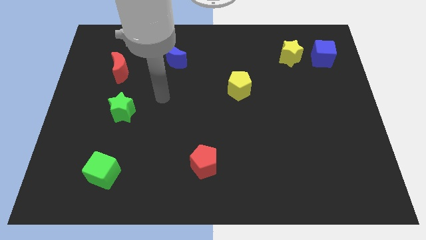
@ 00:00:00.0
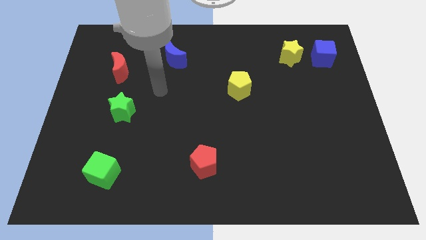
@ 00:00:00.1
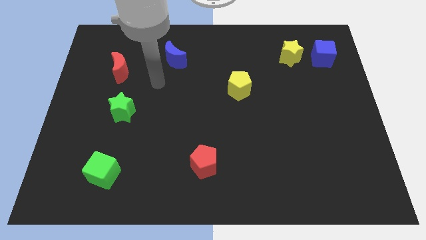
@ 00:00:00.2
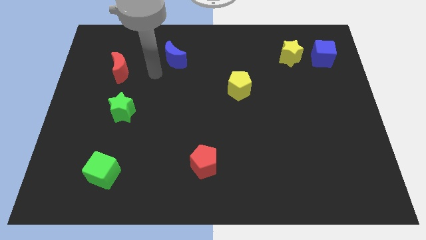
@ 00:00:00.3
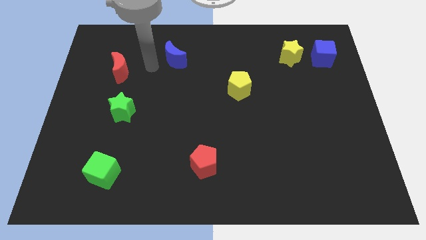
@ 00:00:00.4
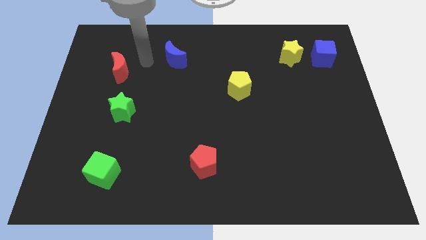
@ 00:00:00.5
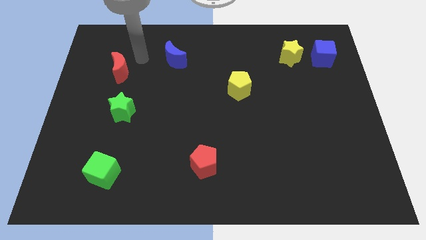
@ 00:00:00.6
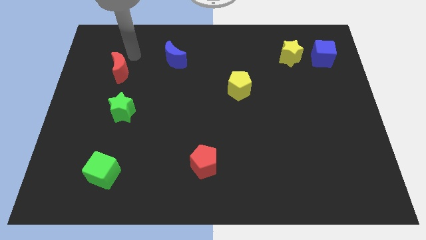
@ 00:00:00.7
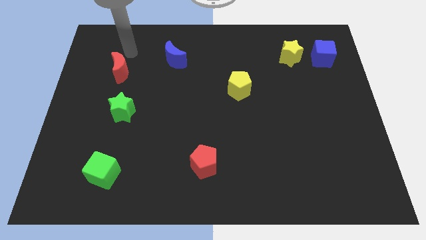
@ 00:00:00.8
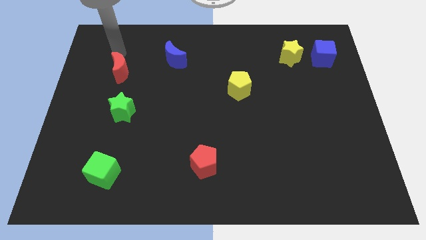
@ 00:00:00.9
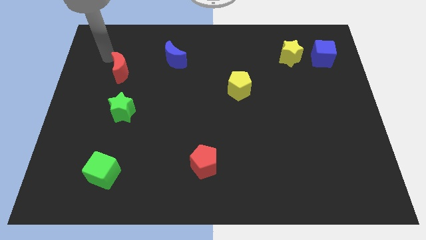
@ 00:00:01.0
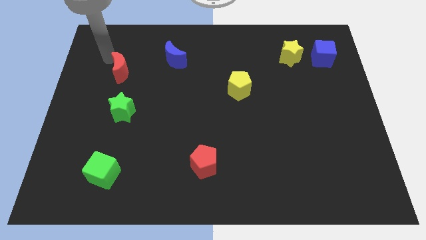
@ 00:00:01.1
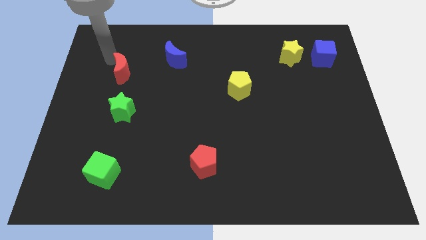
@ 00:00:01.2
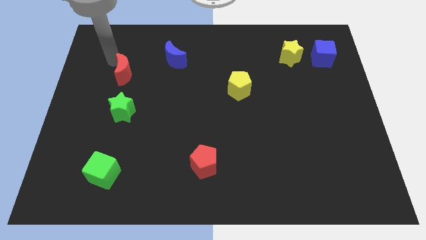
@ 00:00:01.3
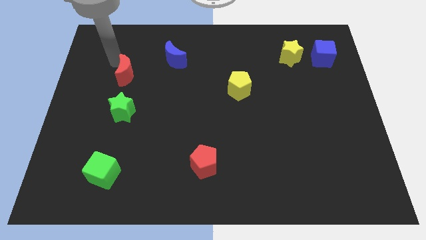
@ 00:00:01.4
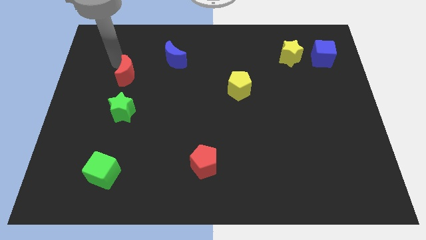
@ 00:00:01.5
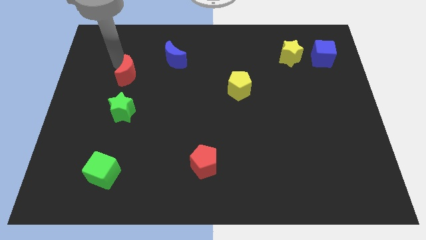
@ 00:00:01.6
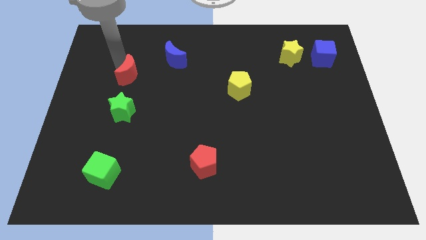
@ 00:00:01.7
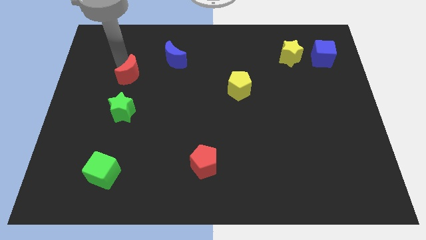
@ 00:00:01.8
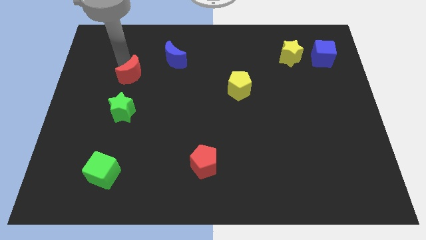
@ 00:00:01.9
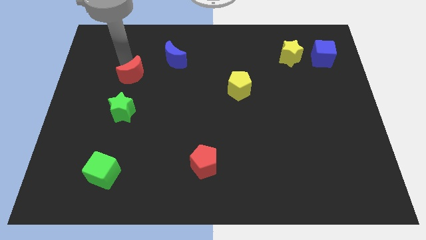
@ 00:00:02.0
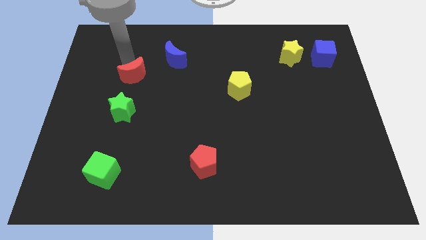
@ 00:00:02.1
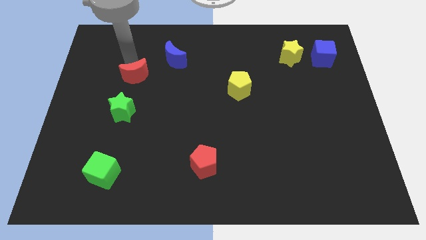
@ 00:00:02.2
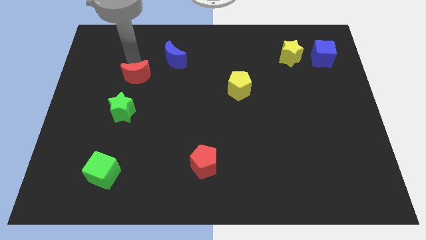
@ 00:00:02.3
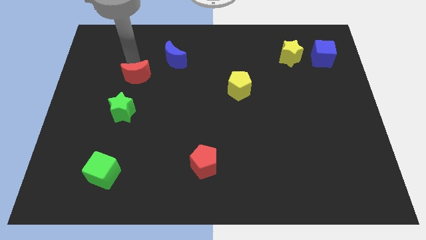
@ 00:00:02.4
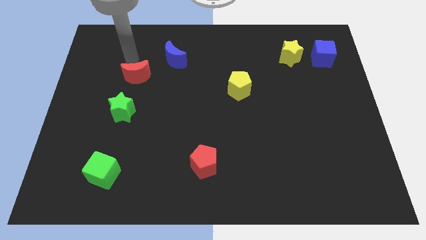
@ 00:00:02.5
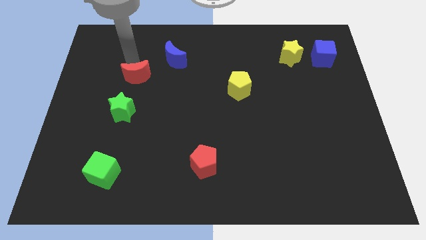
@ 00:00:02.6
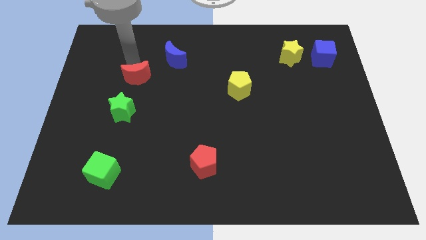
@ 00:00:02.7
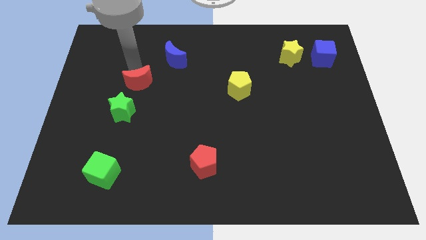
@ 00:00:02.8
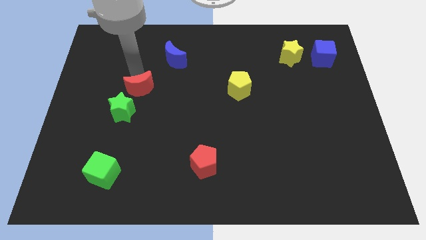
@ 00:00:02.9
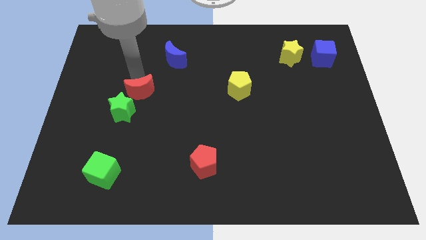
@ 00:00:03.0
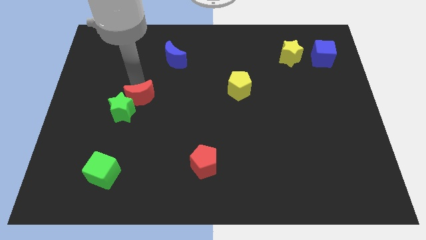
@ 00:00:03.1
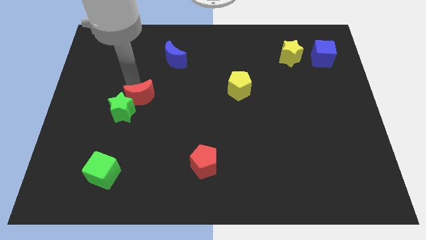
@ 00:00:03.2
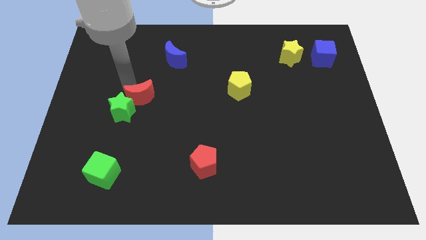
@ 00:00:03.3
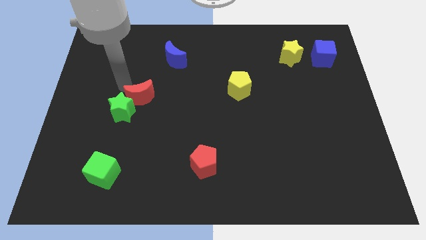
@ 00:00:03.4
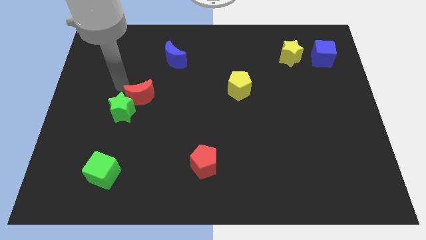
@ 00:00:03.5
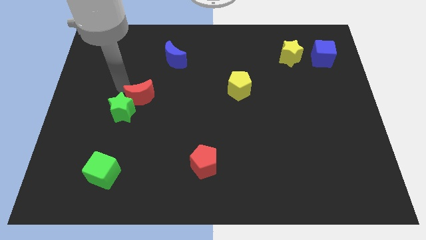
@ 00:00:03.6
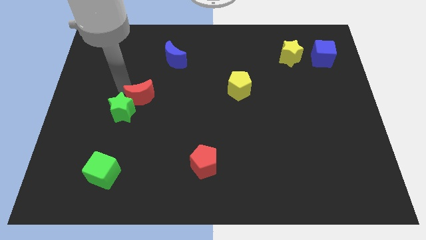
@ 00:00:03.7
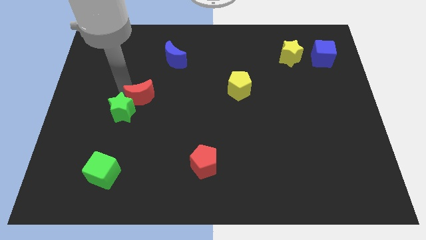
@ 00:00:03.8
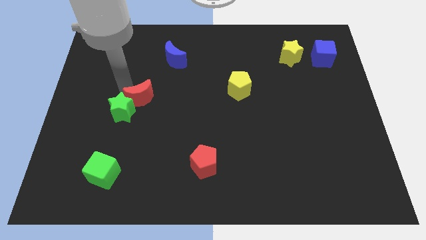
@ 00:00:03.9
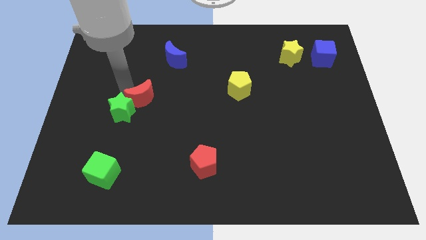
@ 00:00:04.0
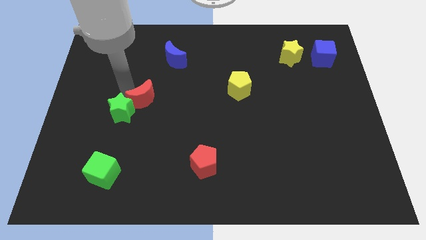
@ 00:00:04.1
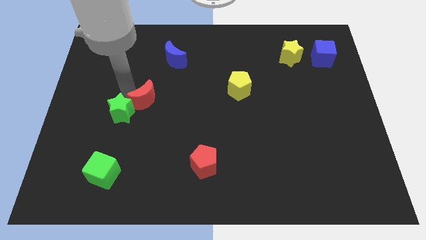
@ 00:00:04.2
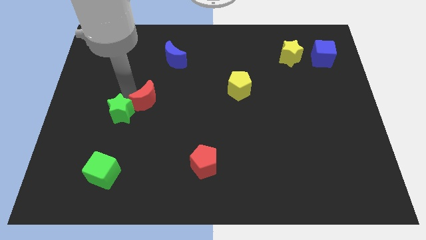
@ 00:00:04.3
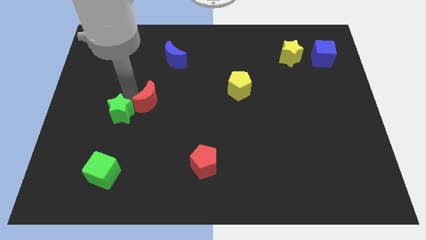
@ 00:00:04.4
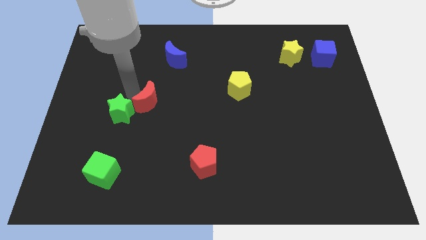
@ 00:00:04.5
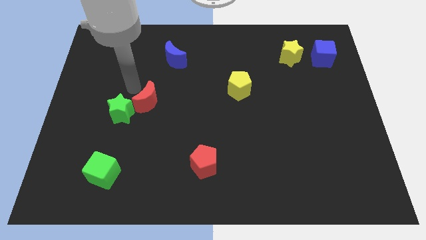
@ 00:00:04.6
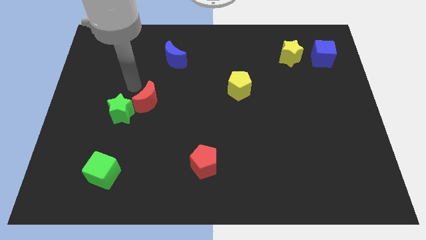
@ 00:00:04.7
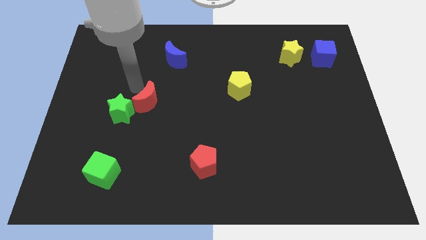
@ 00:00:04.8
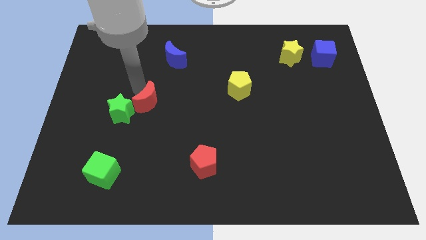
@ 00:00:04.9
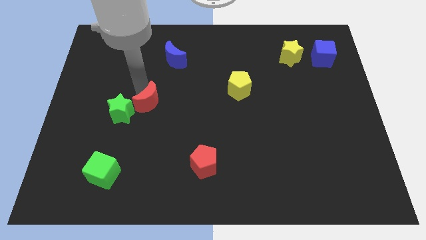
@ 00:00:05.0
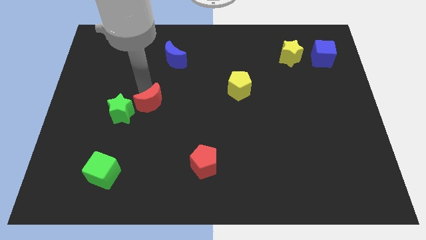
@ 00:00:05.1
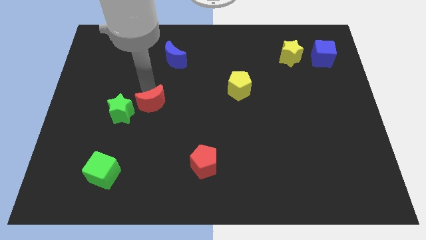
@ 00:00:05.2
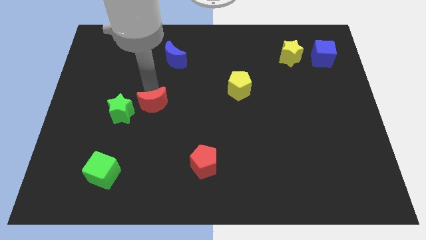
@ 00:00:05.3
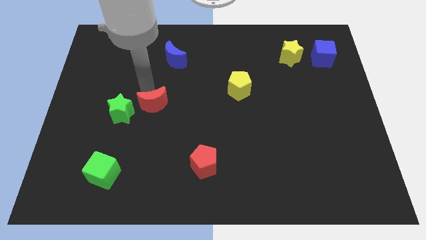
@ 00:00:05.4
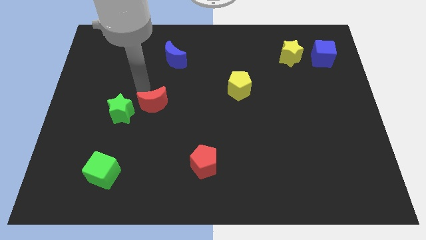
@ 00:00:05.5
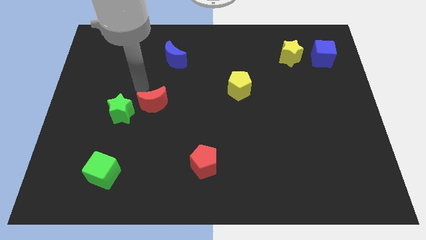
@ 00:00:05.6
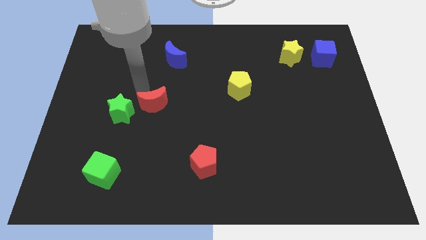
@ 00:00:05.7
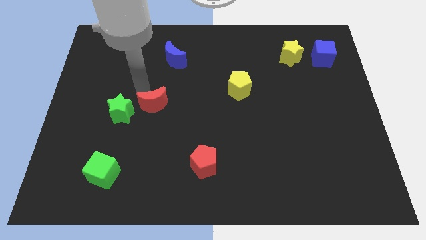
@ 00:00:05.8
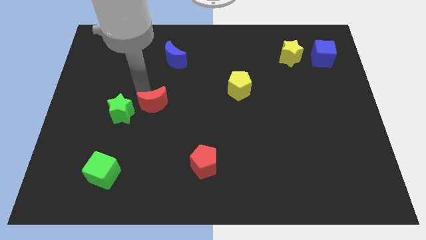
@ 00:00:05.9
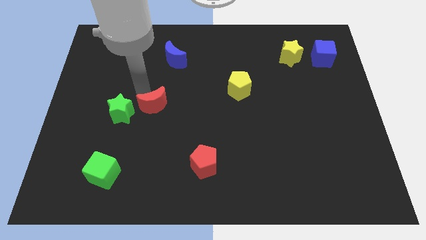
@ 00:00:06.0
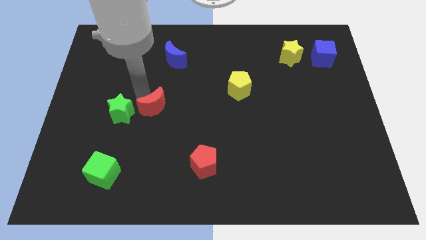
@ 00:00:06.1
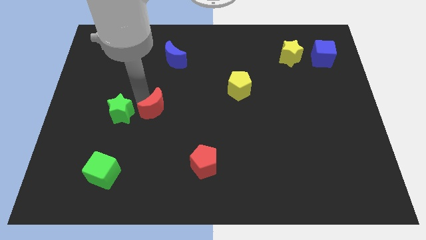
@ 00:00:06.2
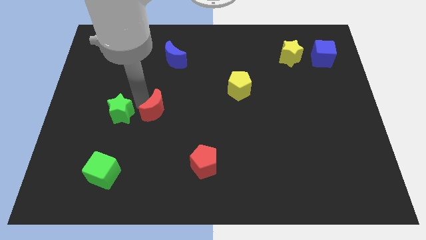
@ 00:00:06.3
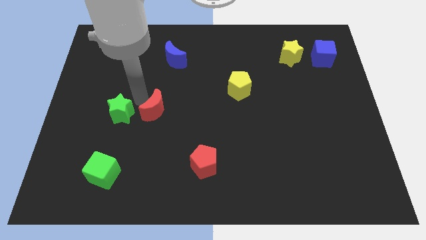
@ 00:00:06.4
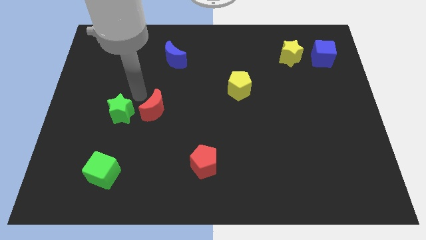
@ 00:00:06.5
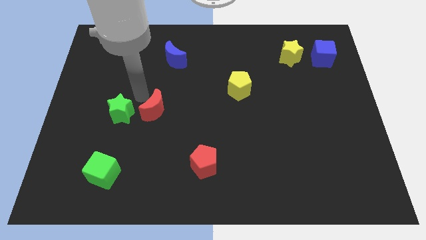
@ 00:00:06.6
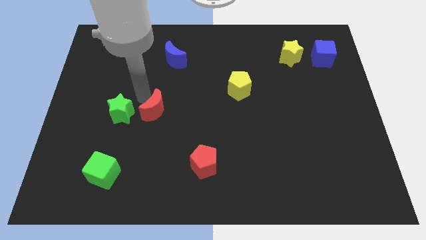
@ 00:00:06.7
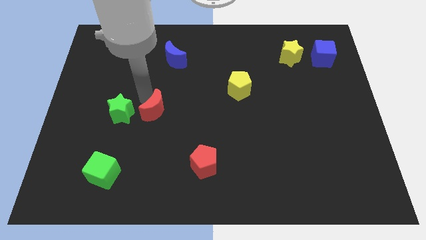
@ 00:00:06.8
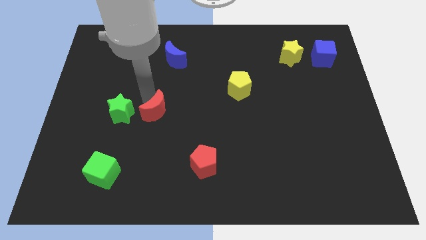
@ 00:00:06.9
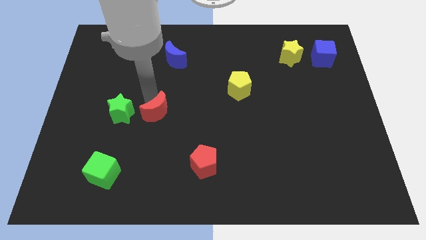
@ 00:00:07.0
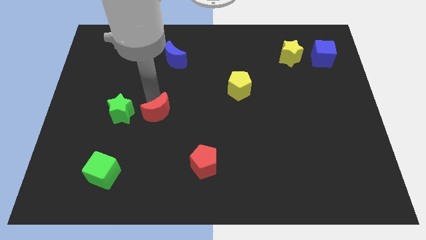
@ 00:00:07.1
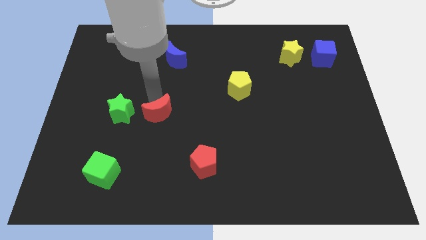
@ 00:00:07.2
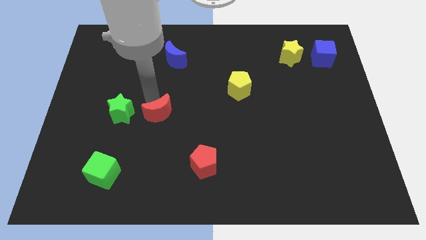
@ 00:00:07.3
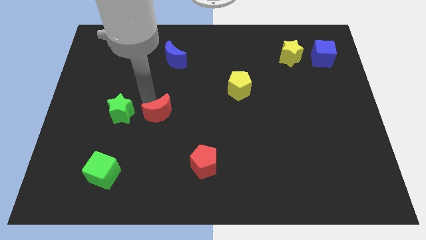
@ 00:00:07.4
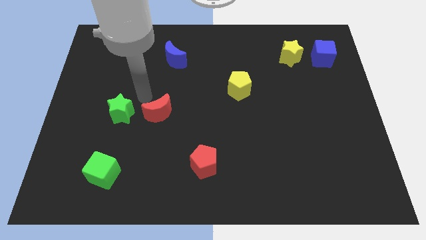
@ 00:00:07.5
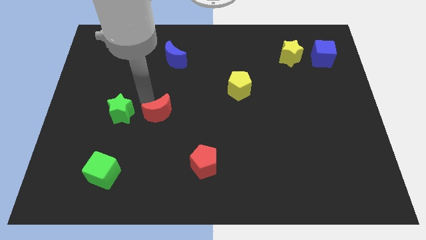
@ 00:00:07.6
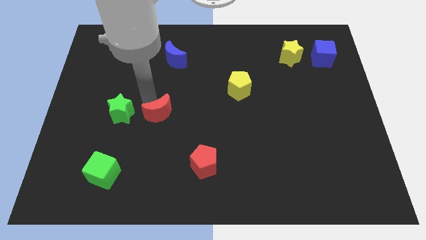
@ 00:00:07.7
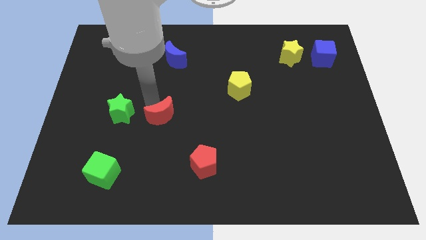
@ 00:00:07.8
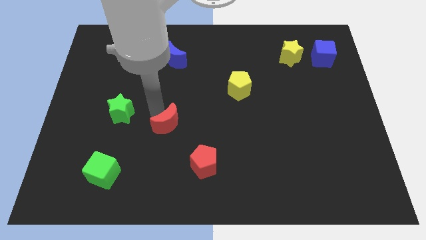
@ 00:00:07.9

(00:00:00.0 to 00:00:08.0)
push the red moon downwards and then right
